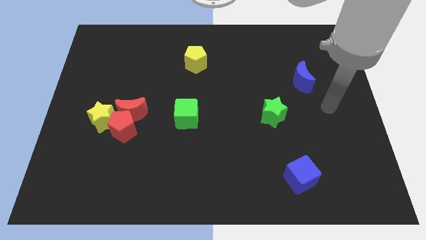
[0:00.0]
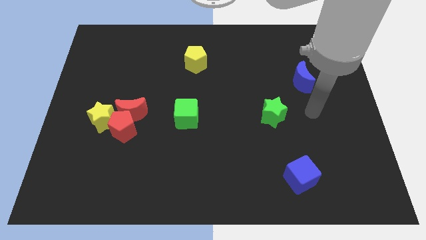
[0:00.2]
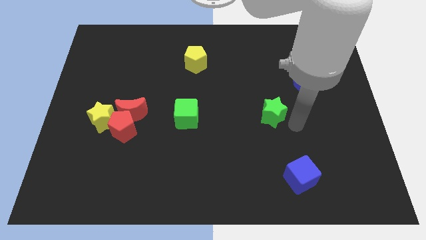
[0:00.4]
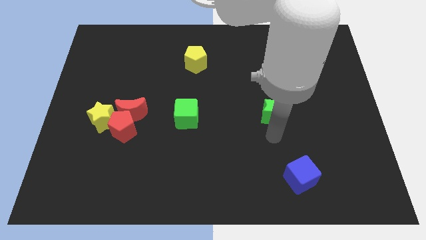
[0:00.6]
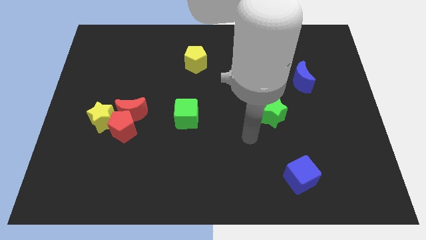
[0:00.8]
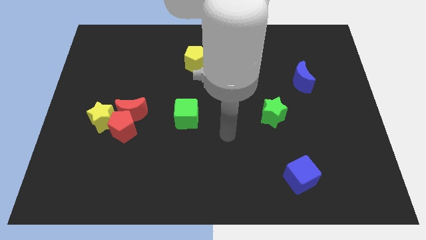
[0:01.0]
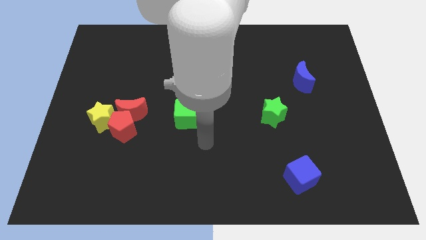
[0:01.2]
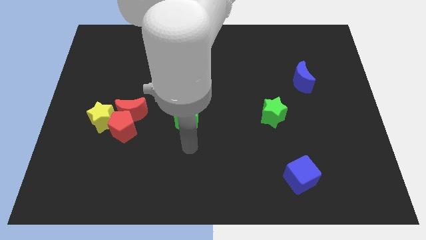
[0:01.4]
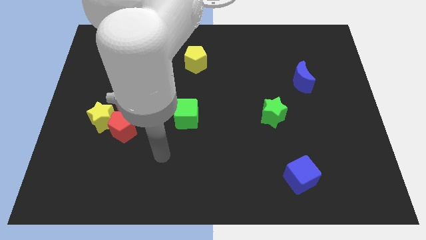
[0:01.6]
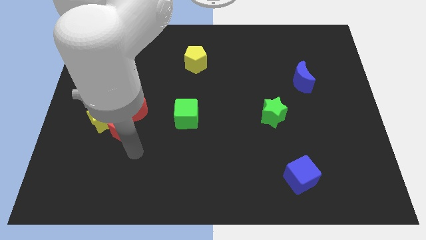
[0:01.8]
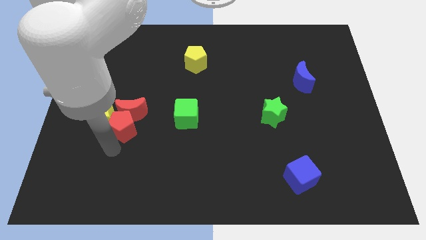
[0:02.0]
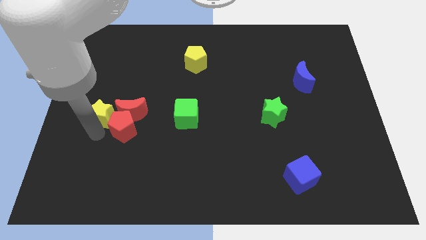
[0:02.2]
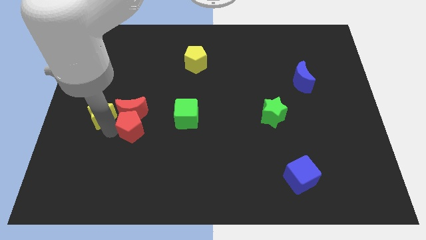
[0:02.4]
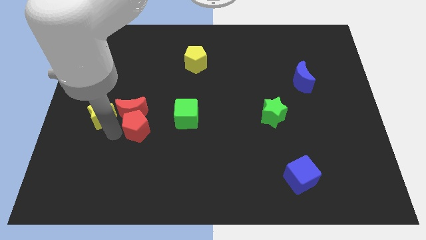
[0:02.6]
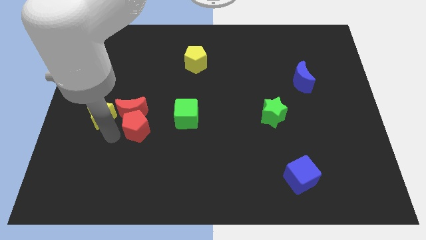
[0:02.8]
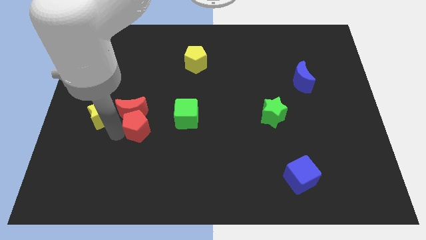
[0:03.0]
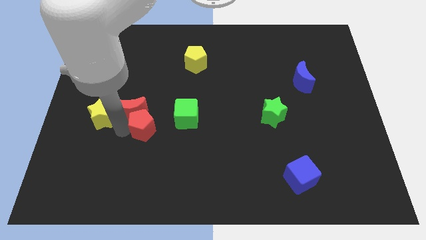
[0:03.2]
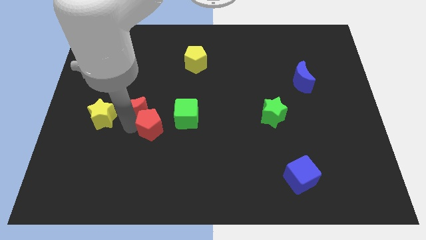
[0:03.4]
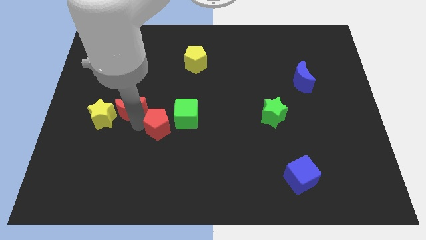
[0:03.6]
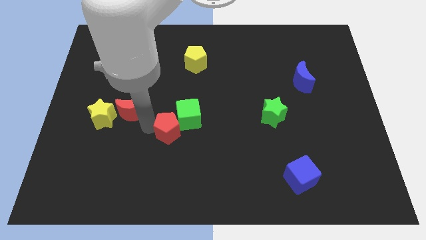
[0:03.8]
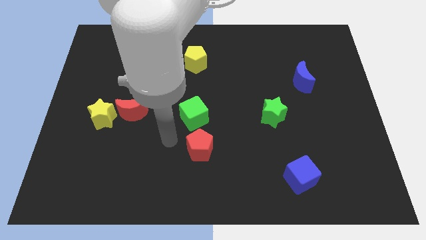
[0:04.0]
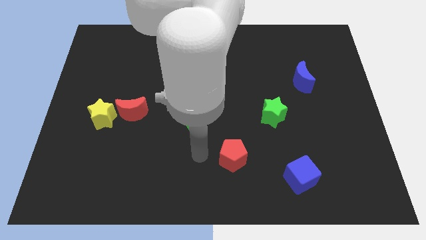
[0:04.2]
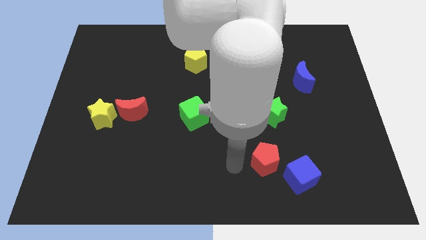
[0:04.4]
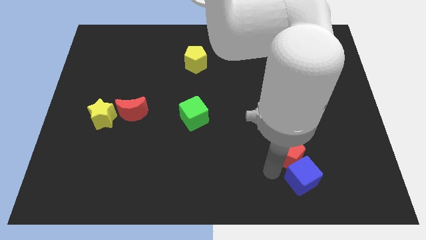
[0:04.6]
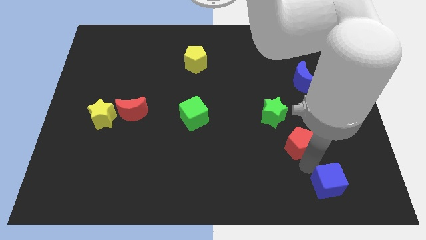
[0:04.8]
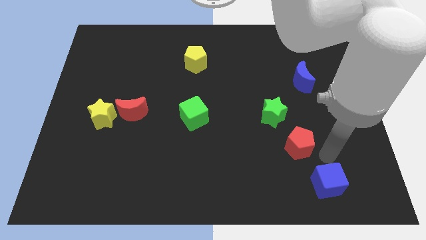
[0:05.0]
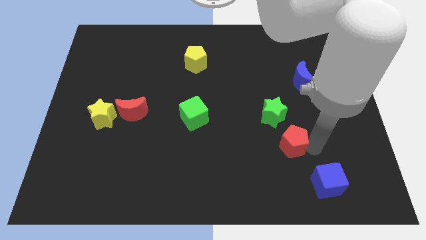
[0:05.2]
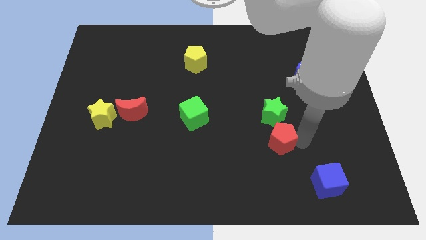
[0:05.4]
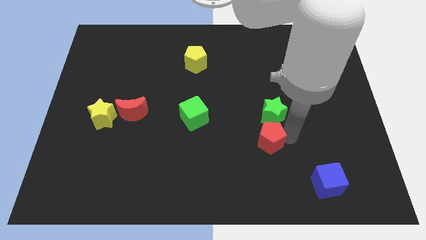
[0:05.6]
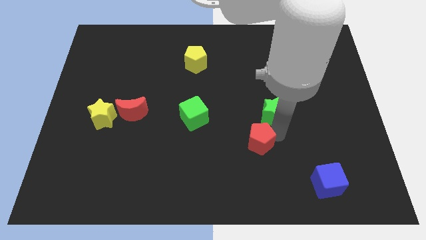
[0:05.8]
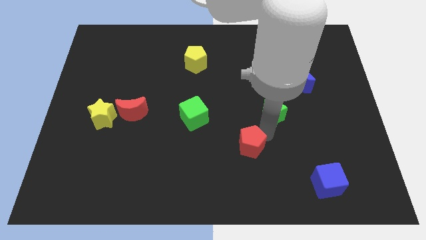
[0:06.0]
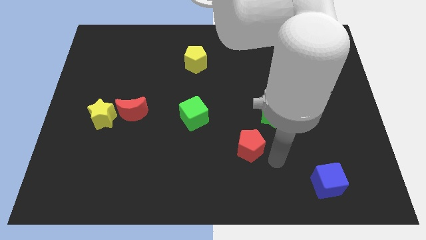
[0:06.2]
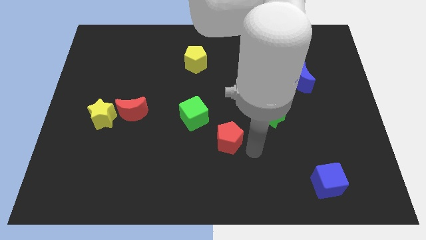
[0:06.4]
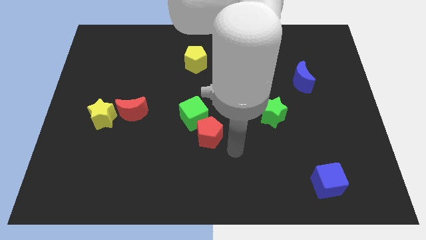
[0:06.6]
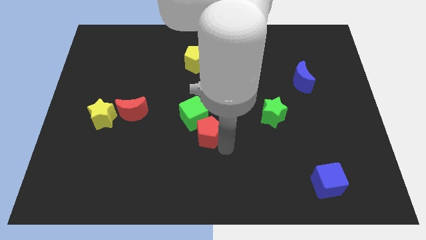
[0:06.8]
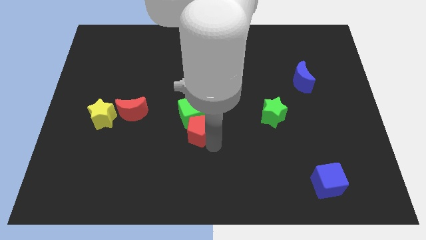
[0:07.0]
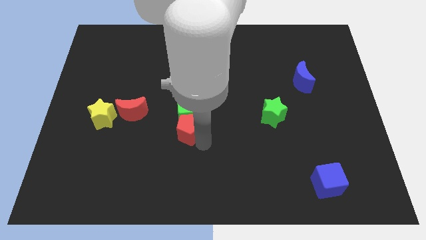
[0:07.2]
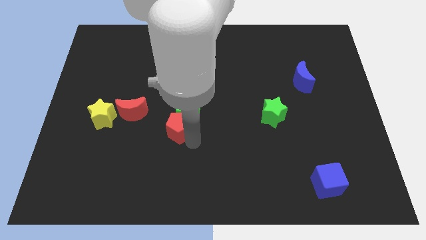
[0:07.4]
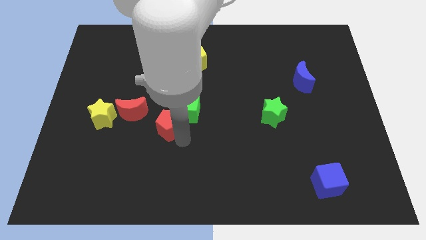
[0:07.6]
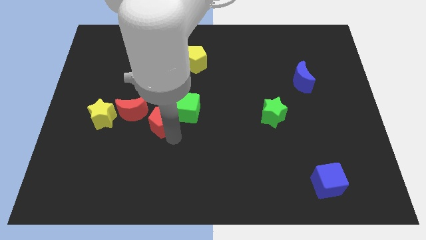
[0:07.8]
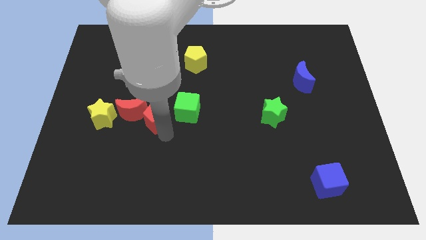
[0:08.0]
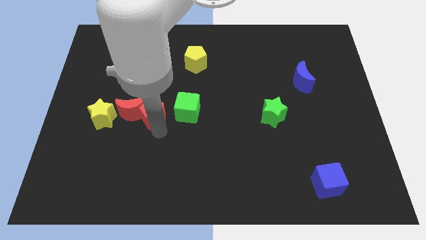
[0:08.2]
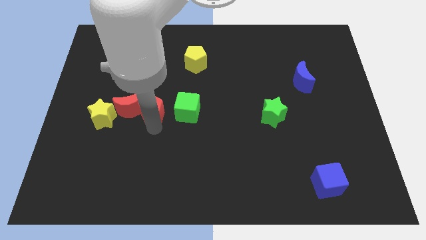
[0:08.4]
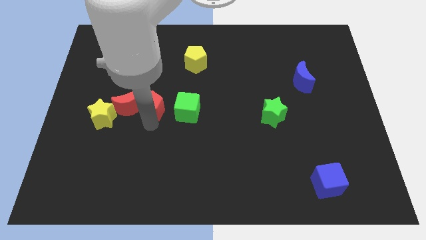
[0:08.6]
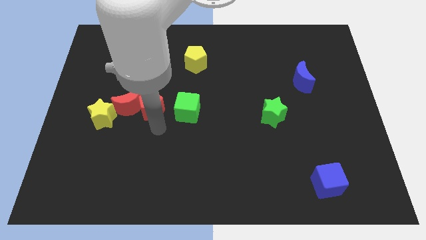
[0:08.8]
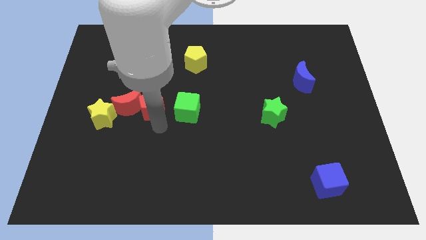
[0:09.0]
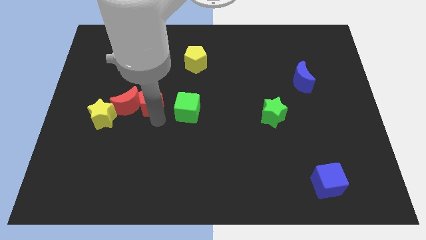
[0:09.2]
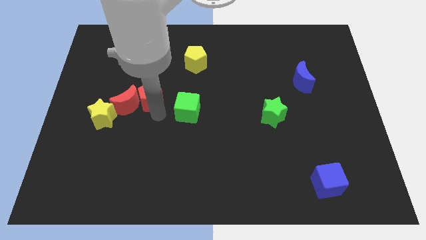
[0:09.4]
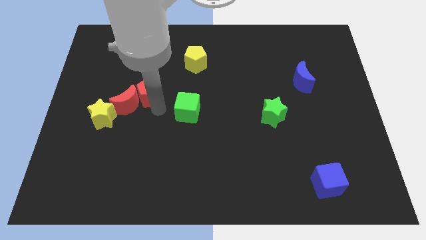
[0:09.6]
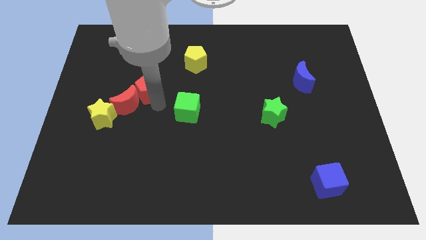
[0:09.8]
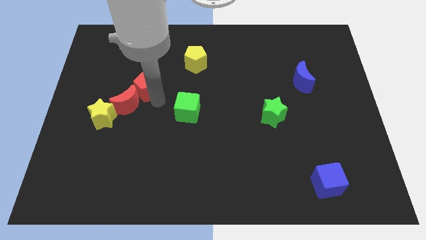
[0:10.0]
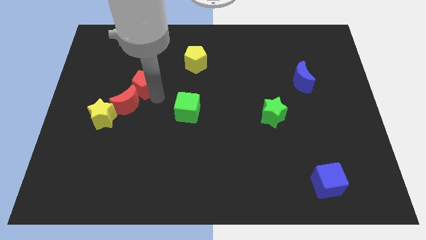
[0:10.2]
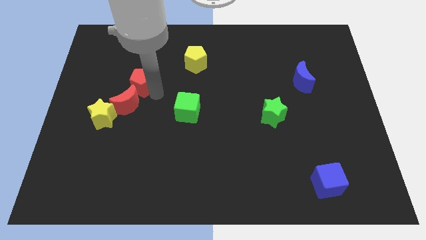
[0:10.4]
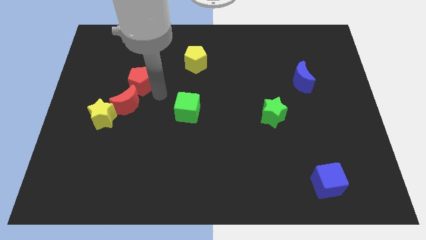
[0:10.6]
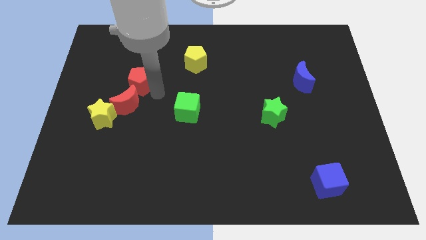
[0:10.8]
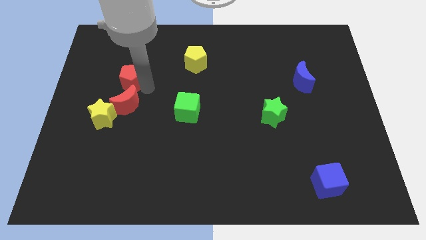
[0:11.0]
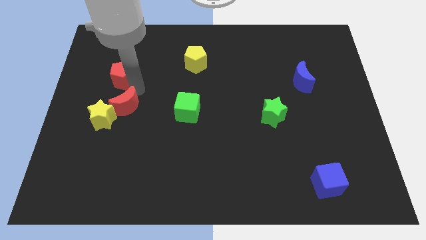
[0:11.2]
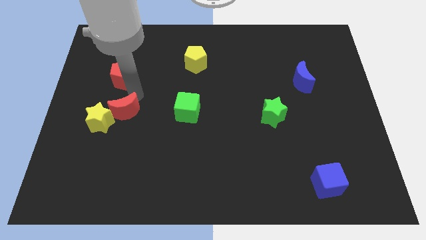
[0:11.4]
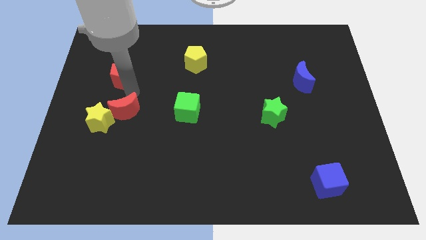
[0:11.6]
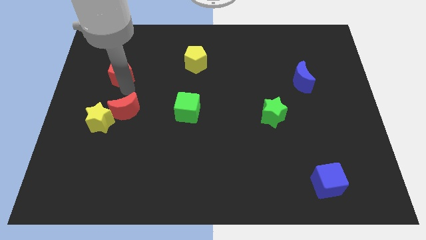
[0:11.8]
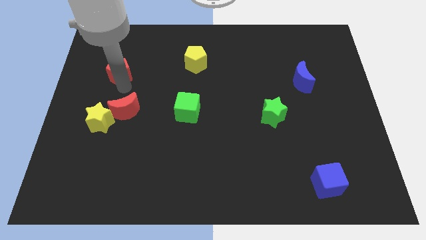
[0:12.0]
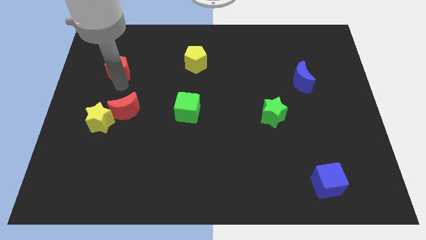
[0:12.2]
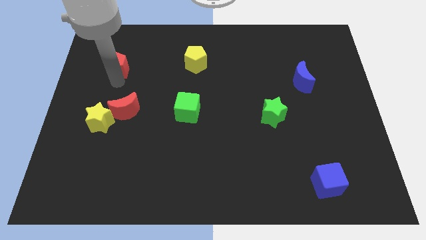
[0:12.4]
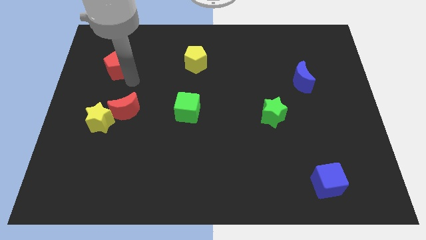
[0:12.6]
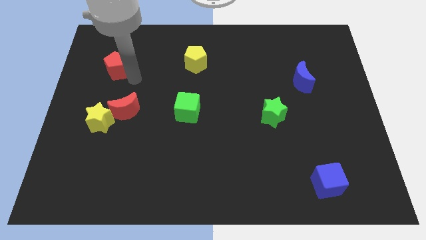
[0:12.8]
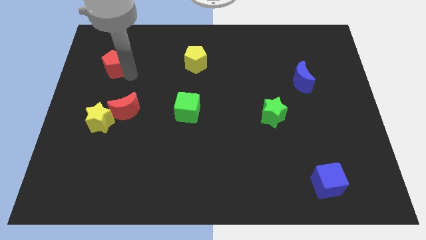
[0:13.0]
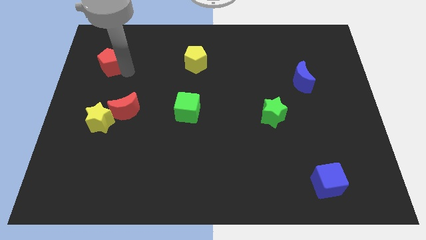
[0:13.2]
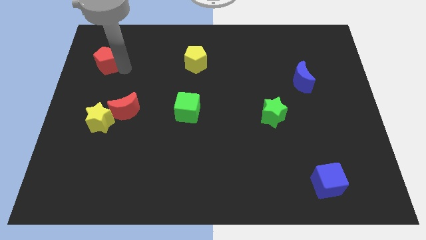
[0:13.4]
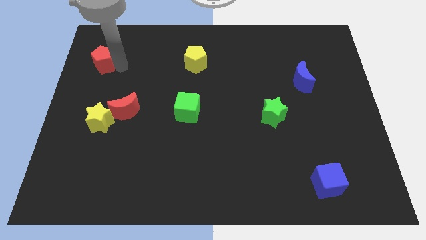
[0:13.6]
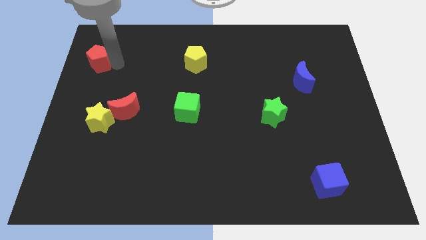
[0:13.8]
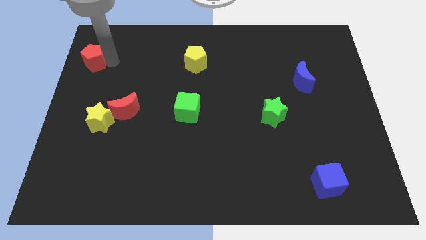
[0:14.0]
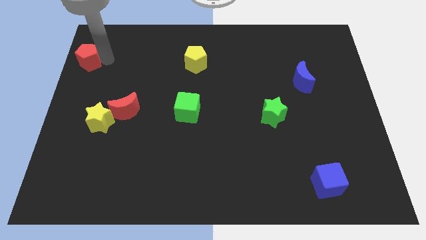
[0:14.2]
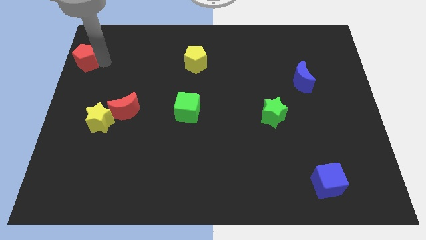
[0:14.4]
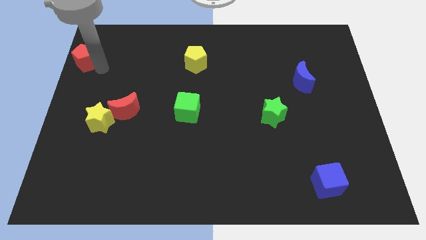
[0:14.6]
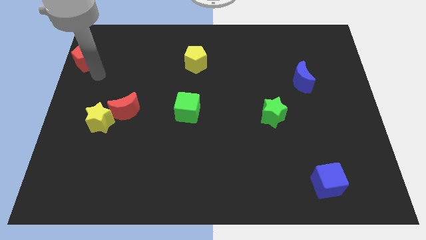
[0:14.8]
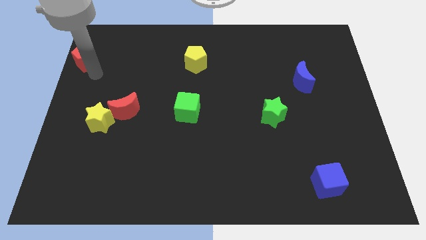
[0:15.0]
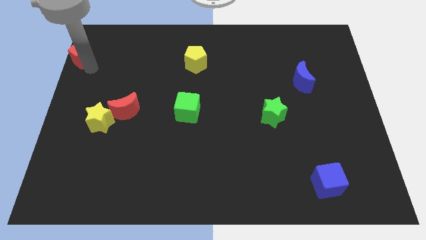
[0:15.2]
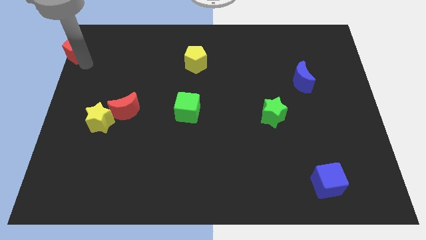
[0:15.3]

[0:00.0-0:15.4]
push the red pentagon to the upper left corner
